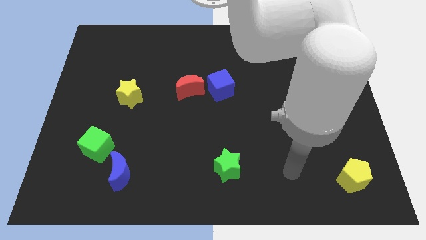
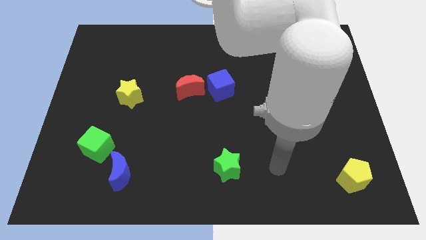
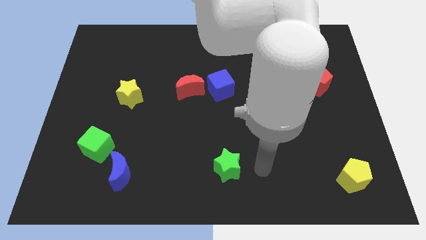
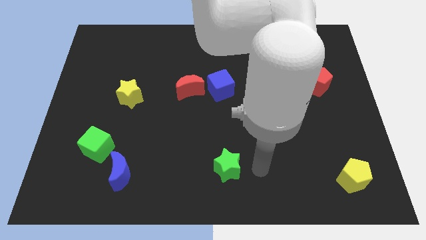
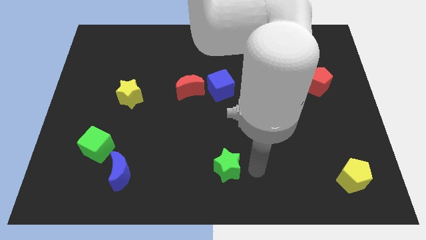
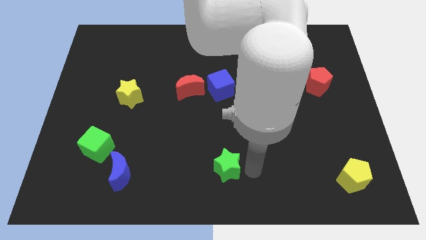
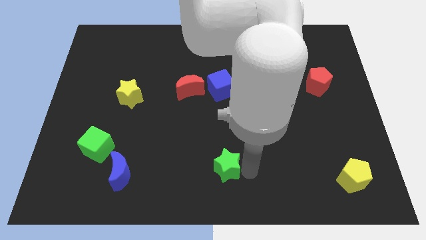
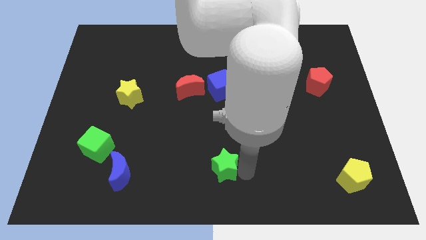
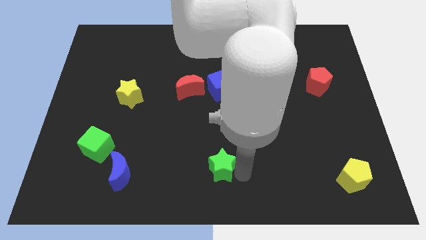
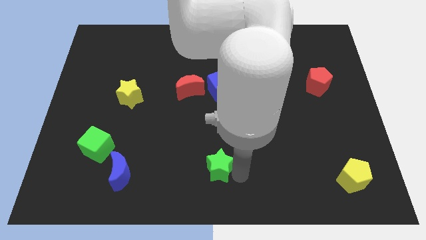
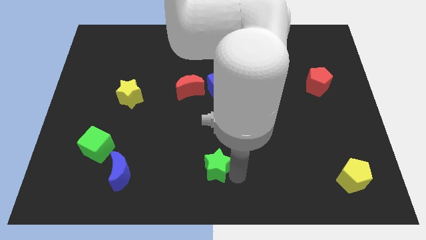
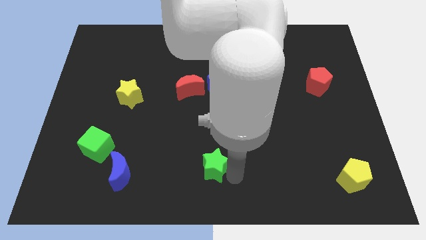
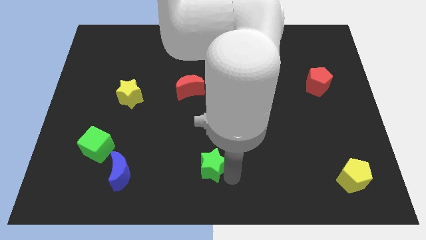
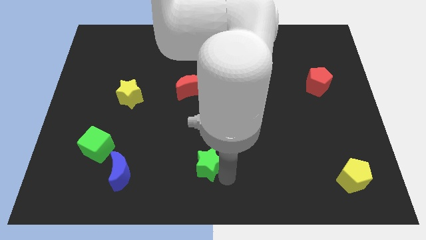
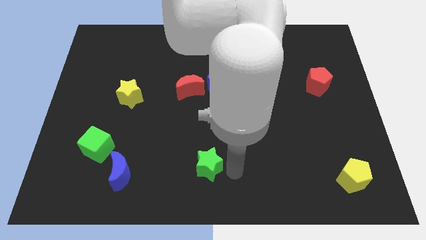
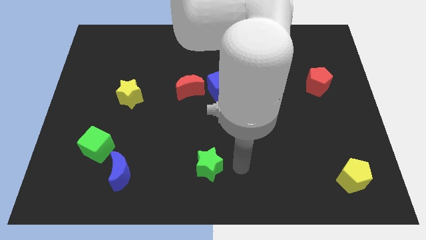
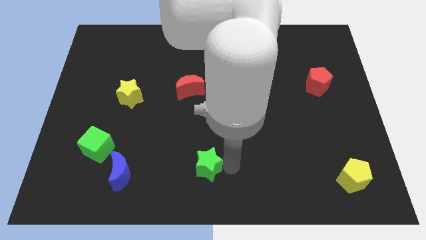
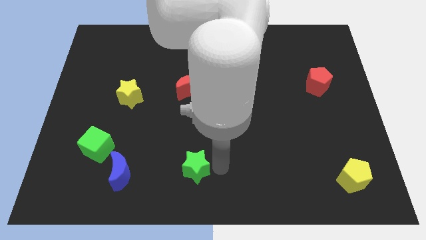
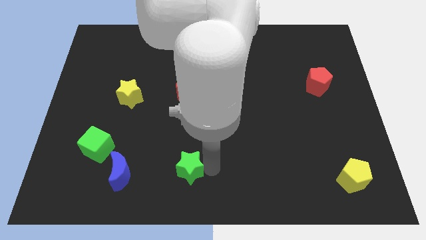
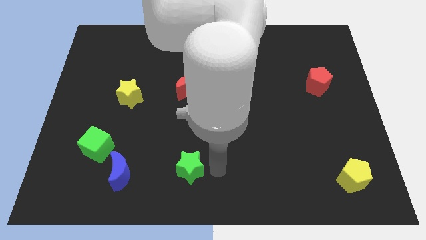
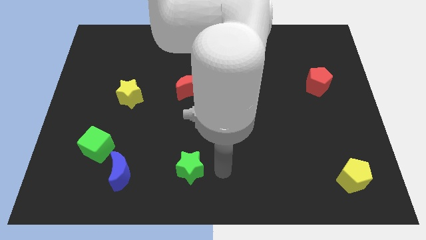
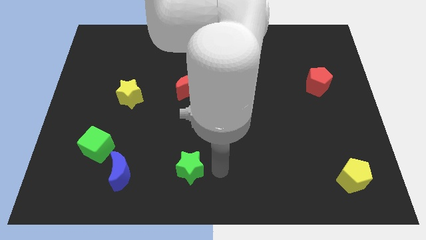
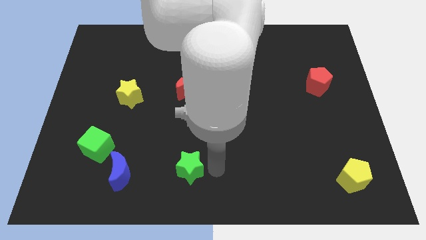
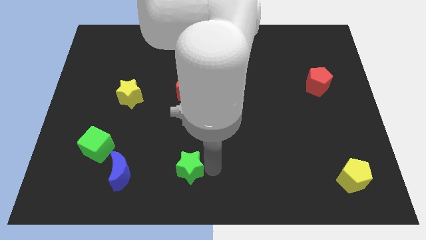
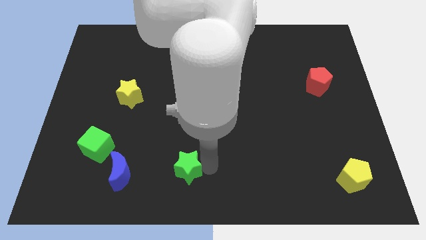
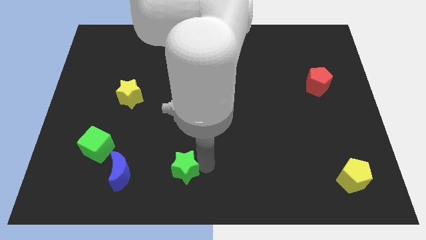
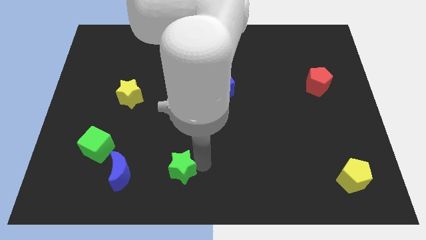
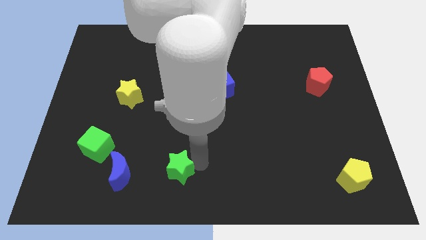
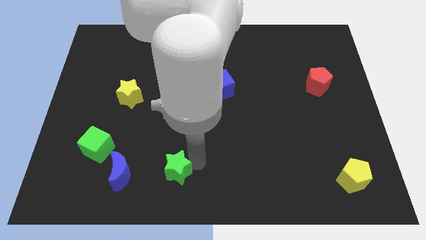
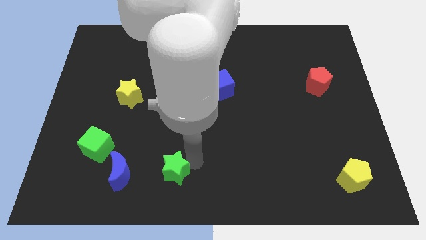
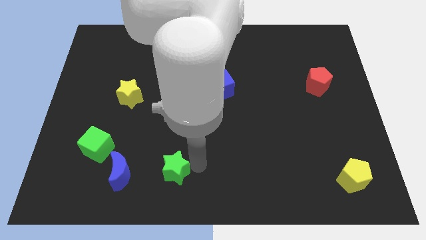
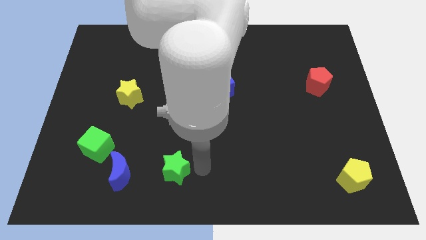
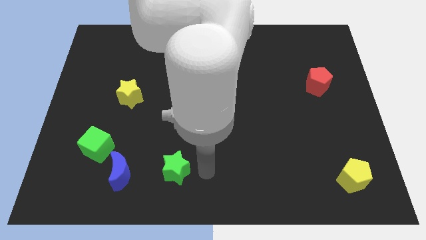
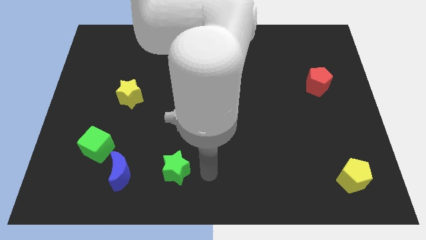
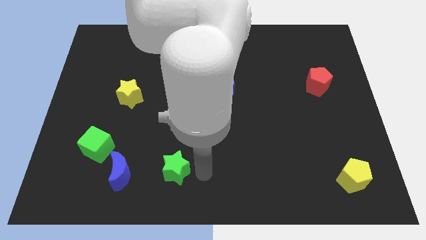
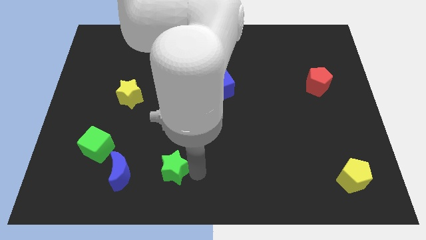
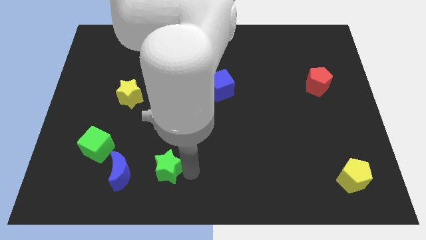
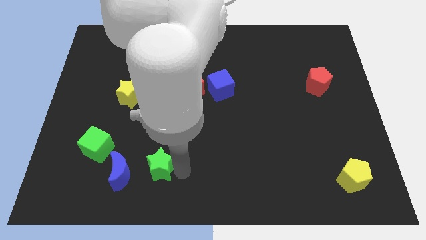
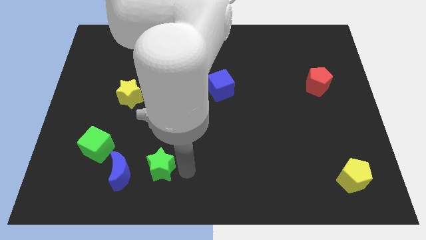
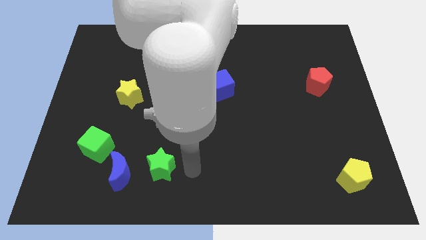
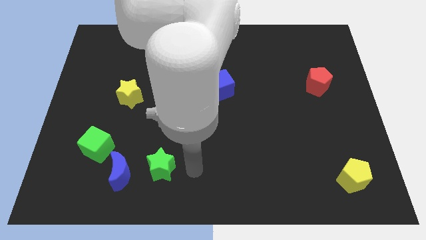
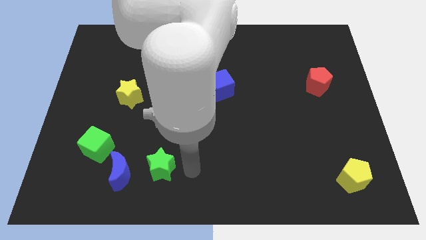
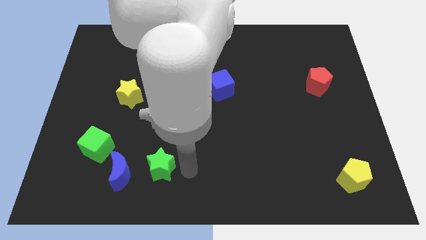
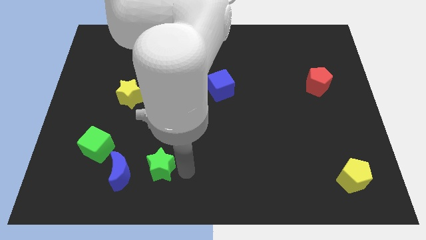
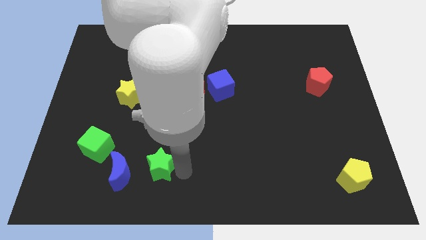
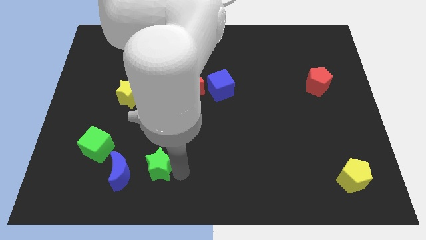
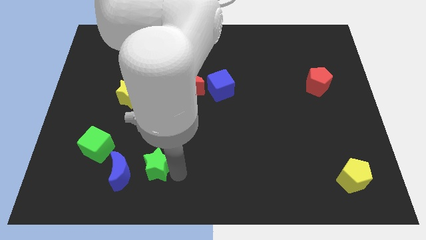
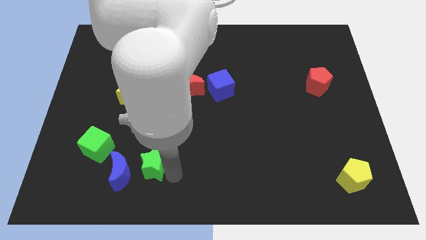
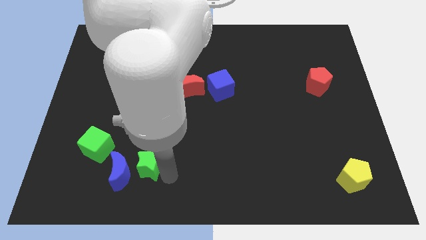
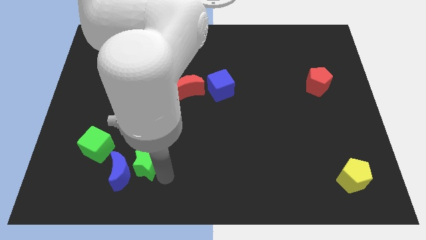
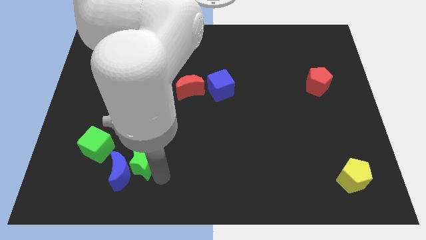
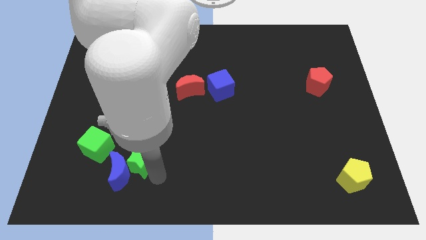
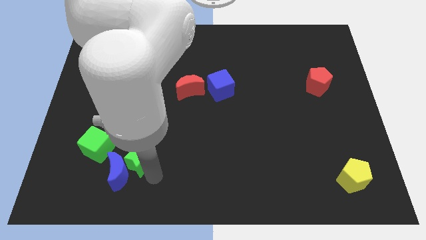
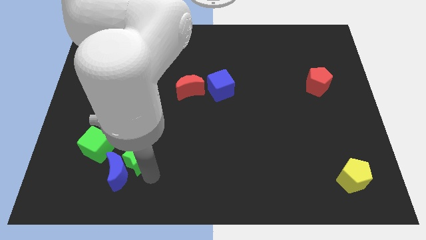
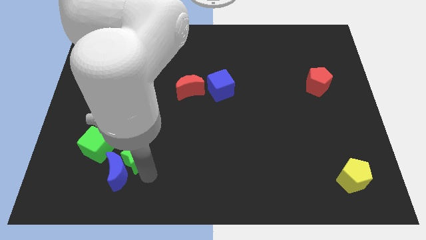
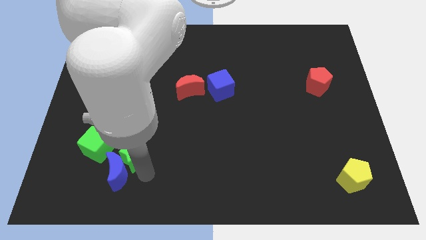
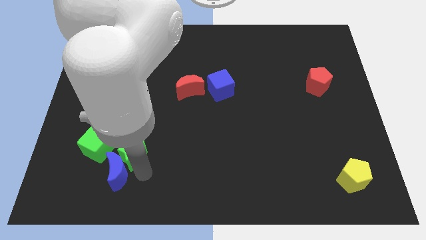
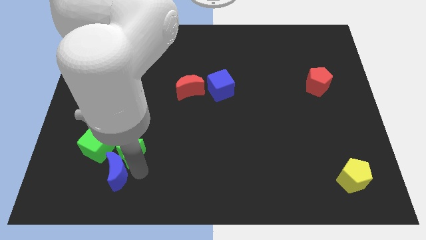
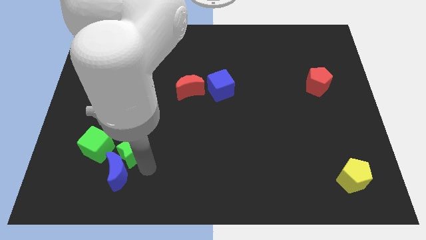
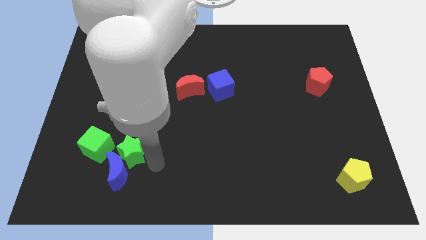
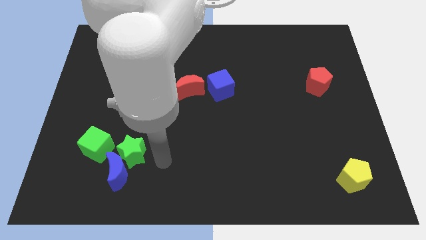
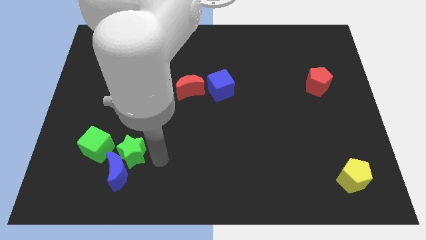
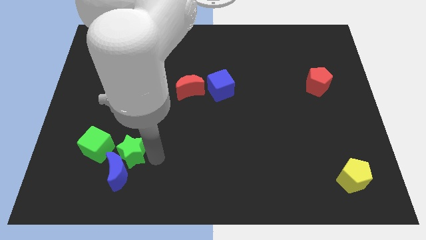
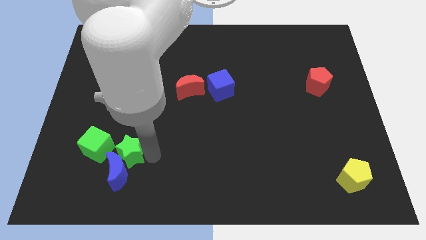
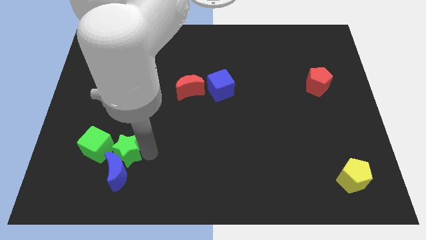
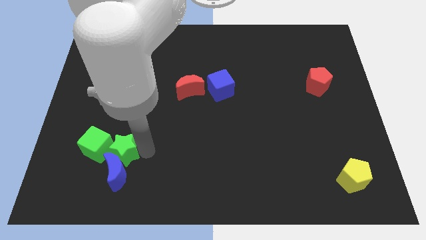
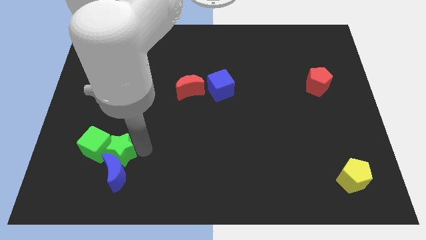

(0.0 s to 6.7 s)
put the green star close to the green cube

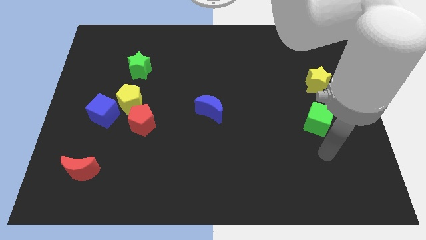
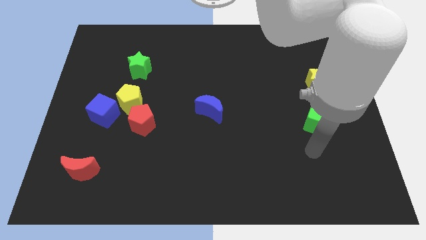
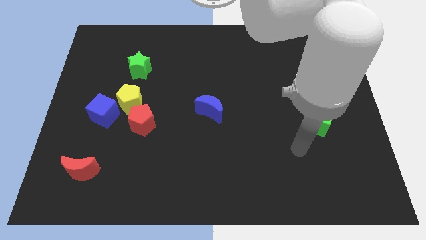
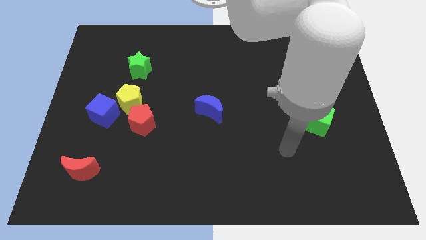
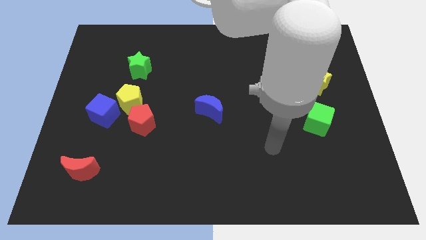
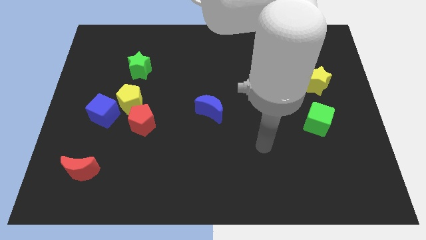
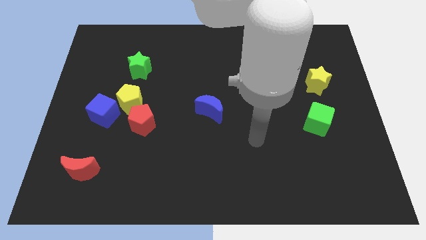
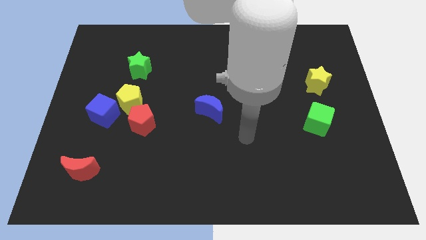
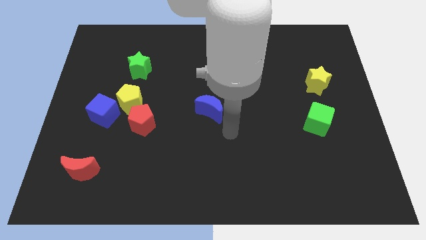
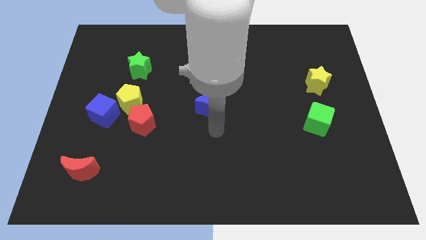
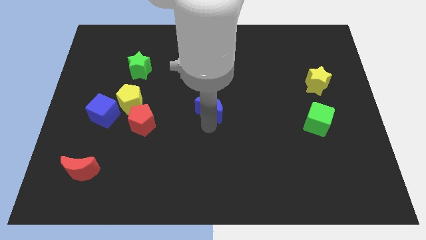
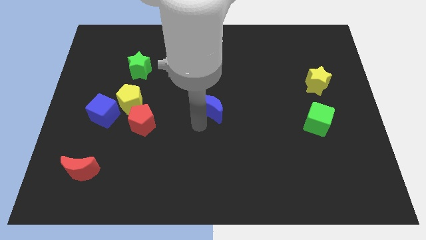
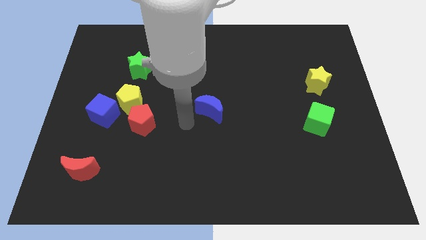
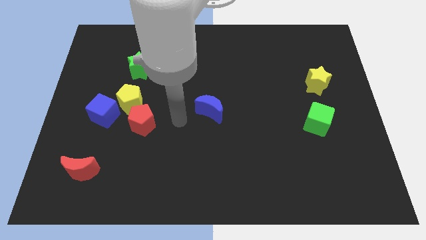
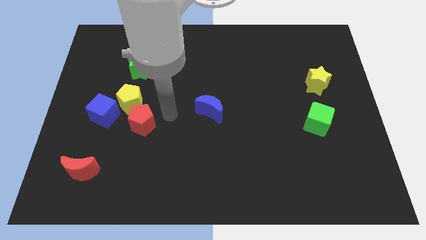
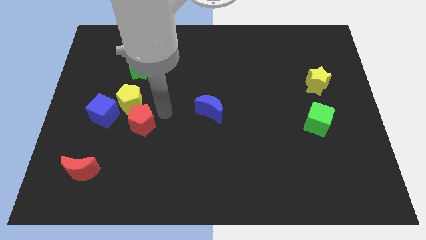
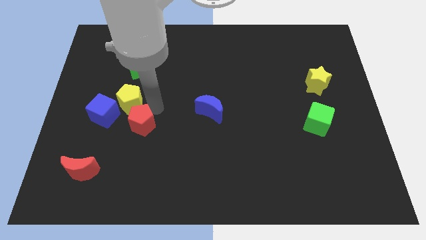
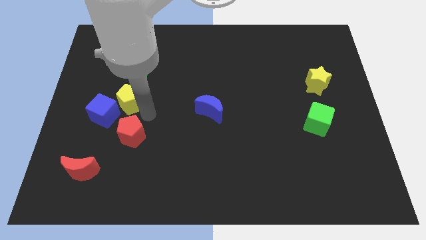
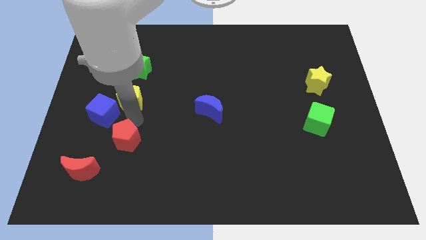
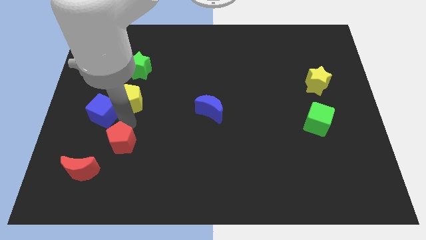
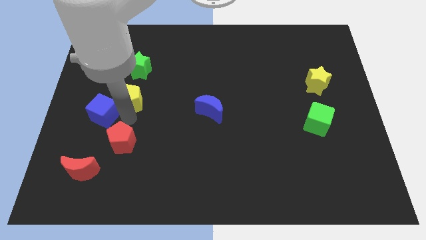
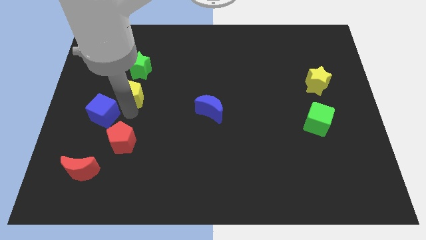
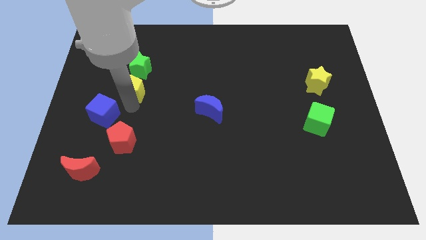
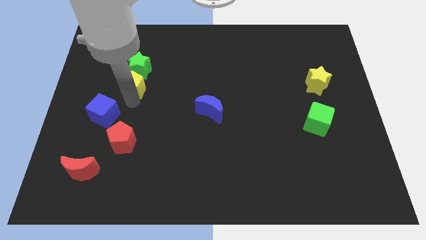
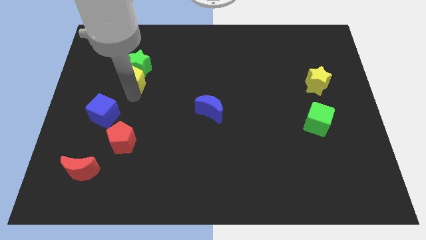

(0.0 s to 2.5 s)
put the yellow pentagon close to the green star
